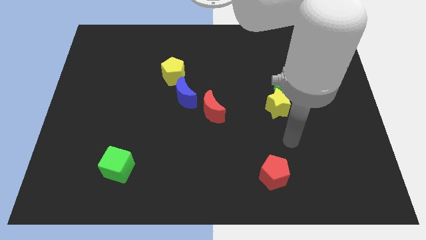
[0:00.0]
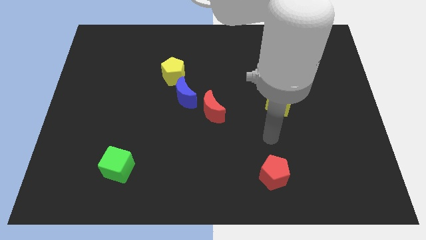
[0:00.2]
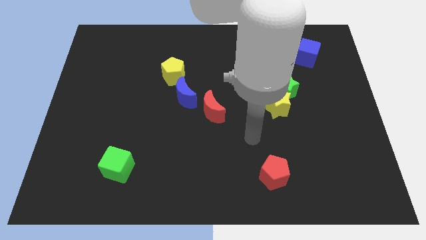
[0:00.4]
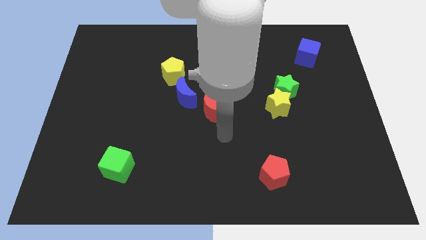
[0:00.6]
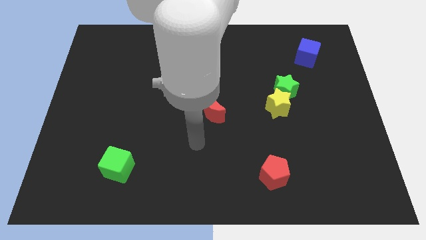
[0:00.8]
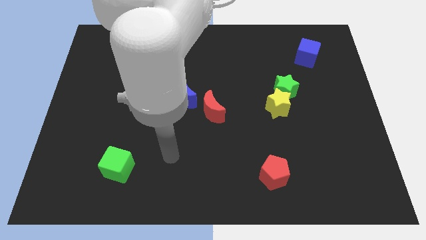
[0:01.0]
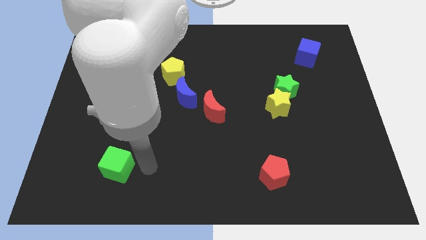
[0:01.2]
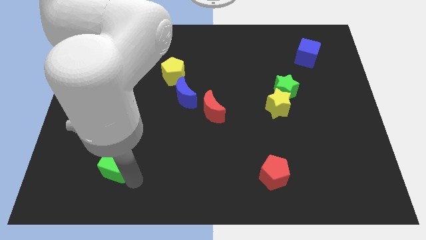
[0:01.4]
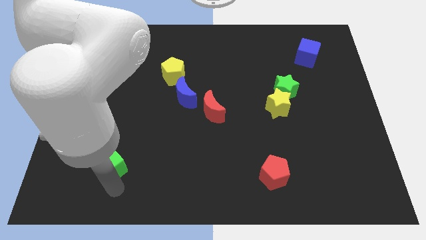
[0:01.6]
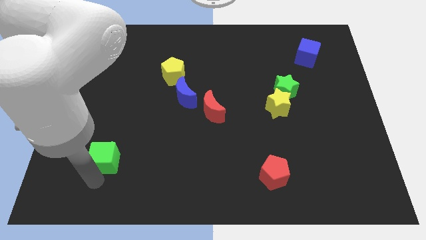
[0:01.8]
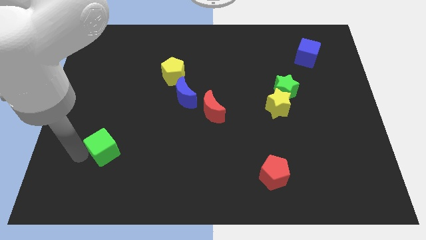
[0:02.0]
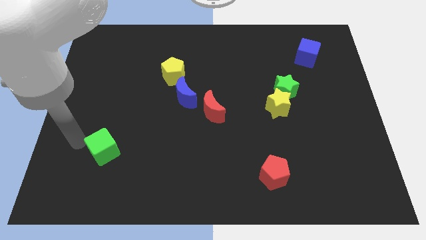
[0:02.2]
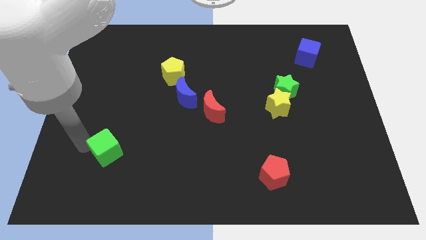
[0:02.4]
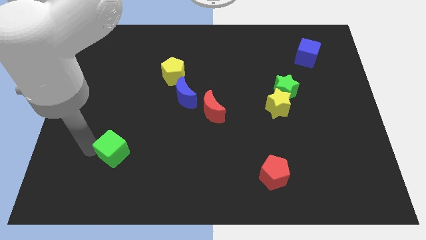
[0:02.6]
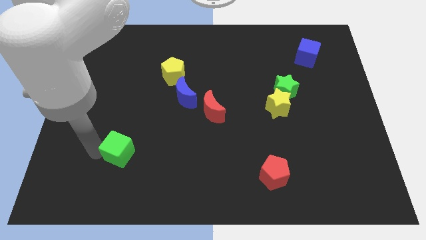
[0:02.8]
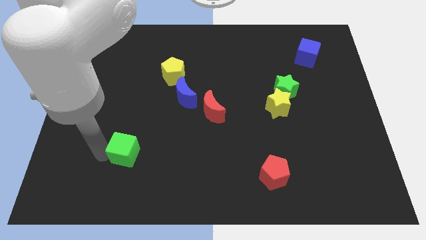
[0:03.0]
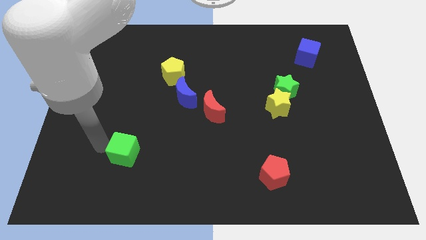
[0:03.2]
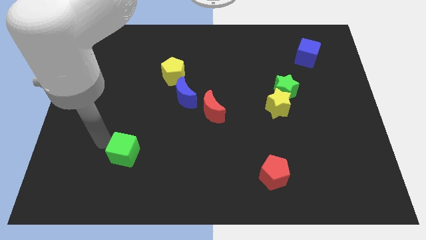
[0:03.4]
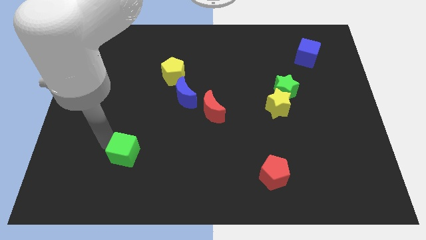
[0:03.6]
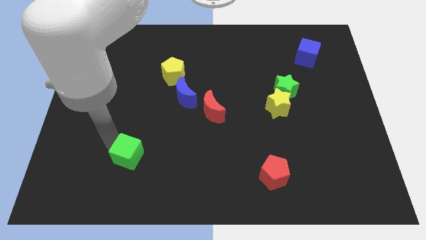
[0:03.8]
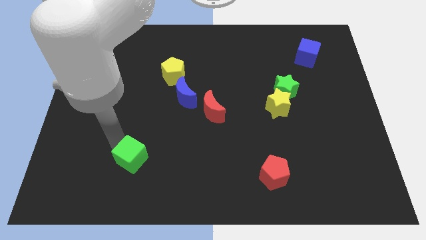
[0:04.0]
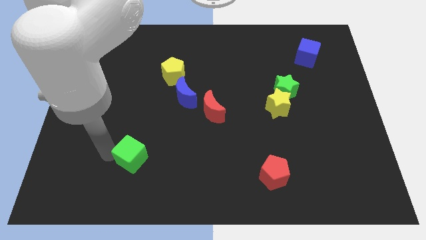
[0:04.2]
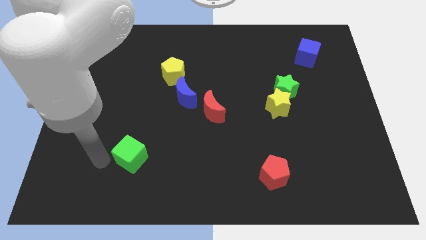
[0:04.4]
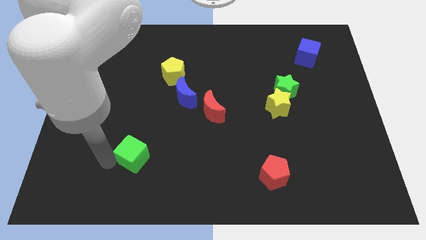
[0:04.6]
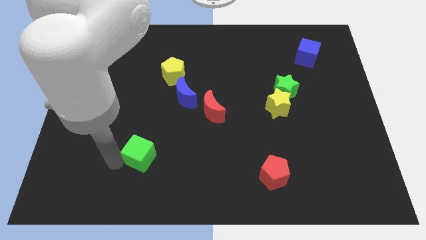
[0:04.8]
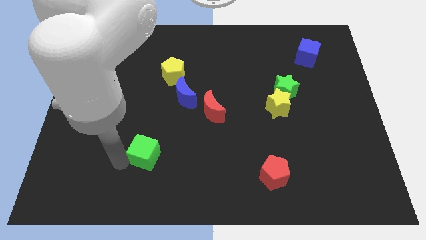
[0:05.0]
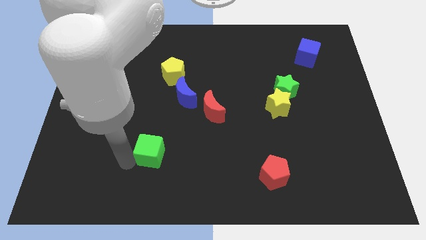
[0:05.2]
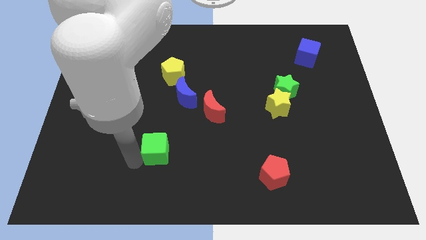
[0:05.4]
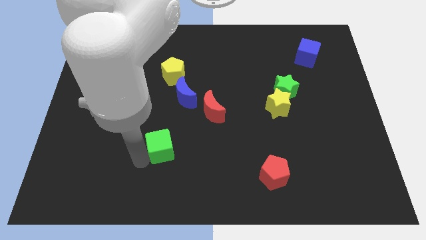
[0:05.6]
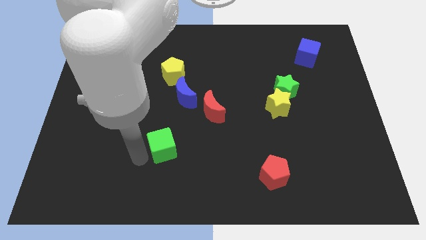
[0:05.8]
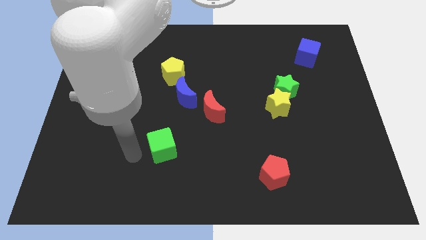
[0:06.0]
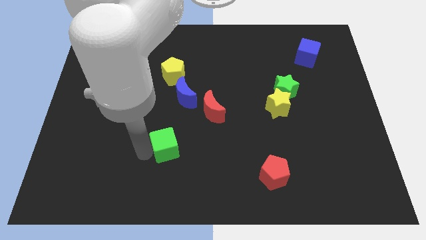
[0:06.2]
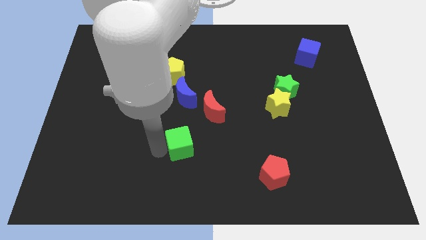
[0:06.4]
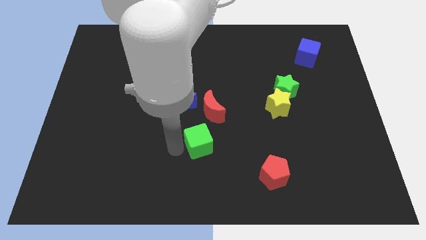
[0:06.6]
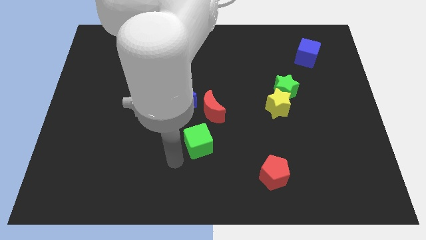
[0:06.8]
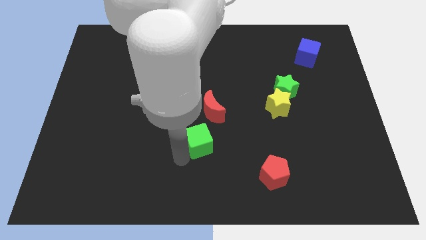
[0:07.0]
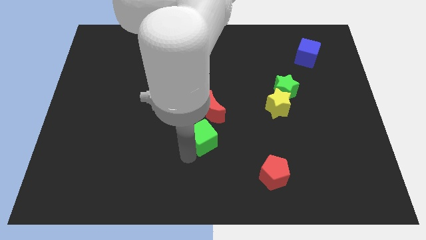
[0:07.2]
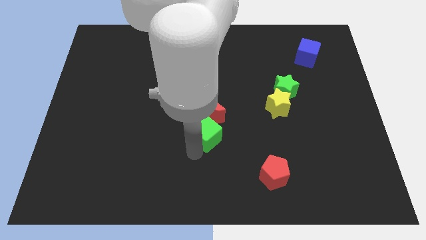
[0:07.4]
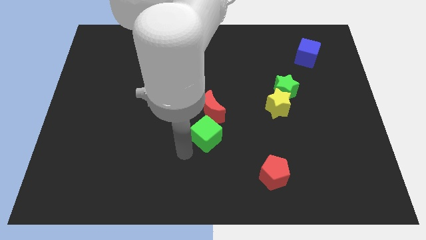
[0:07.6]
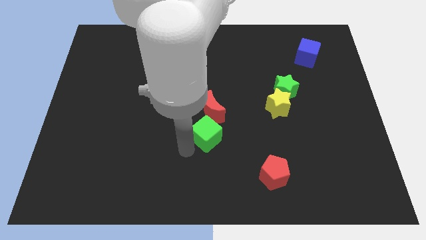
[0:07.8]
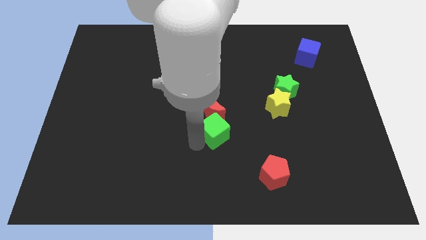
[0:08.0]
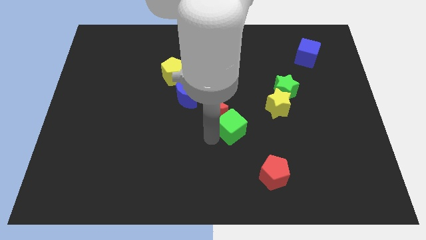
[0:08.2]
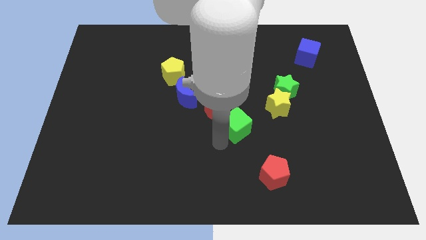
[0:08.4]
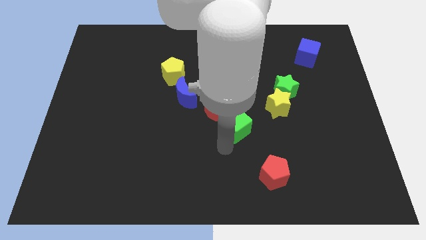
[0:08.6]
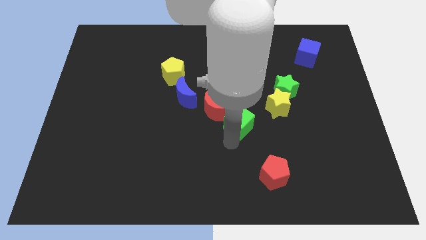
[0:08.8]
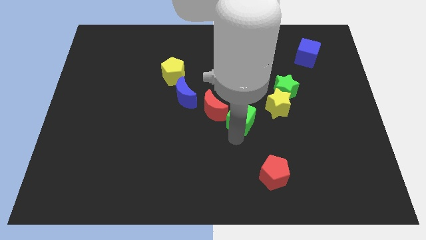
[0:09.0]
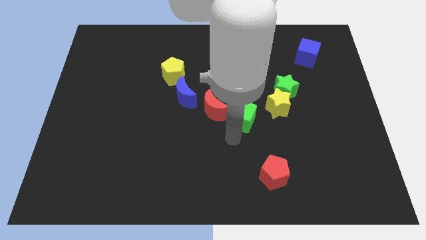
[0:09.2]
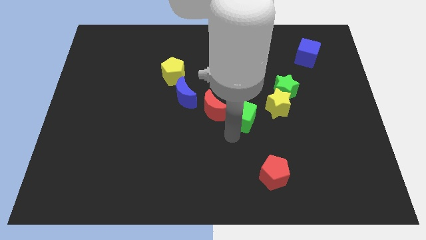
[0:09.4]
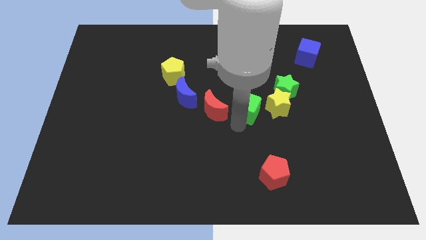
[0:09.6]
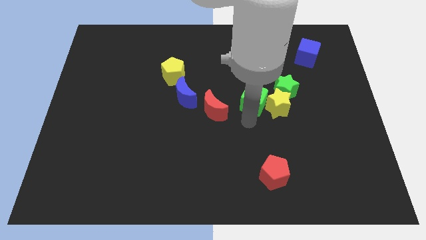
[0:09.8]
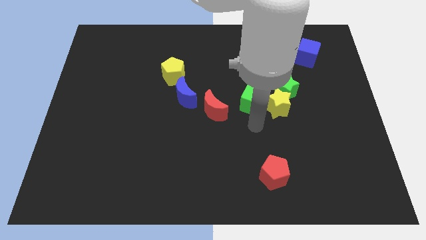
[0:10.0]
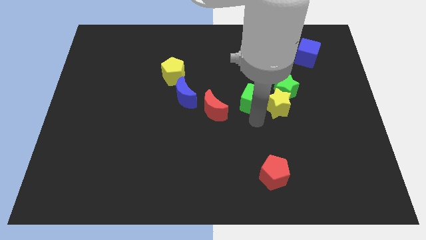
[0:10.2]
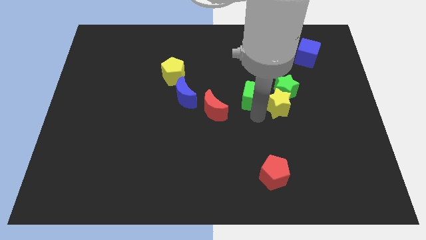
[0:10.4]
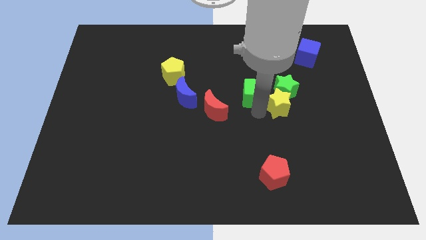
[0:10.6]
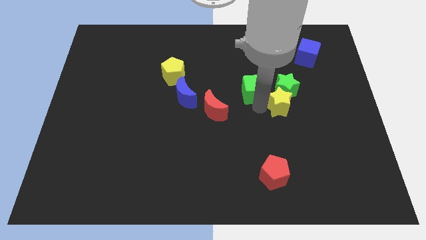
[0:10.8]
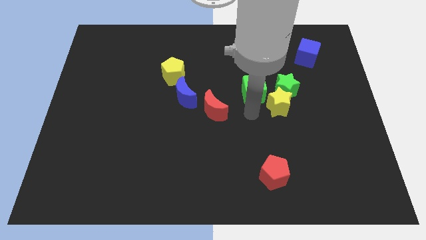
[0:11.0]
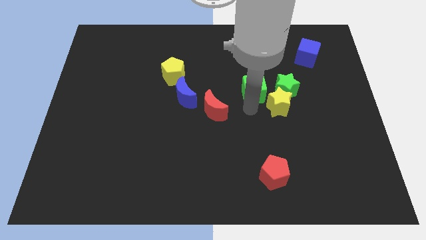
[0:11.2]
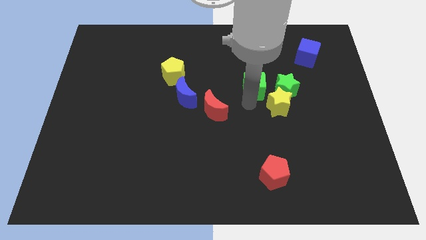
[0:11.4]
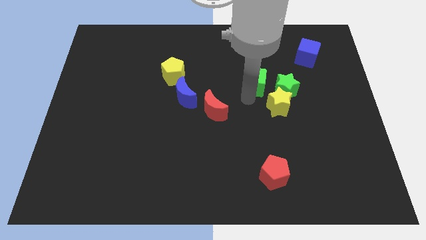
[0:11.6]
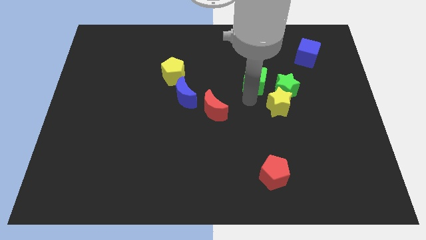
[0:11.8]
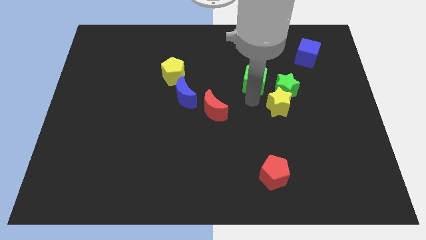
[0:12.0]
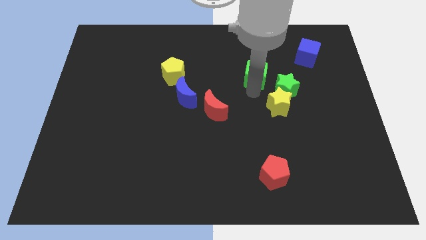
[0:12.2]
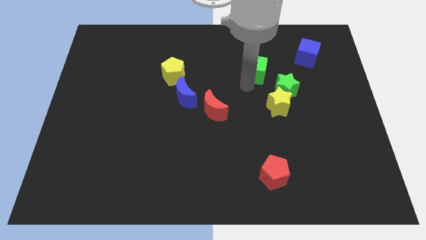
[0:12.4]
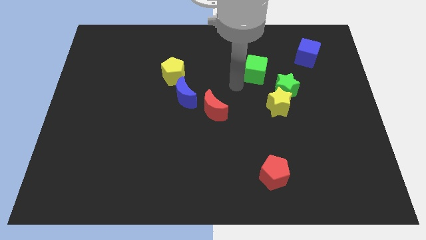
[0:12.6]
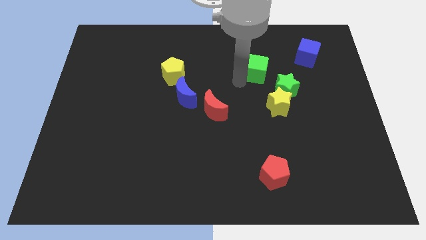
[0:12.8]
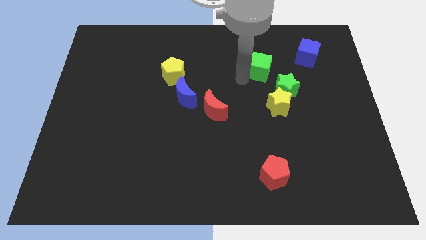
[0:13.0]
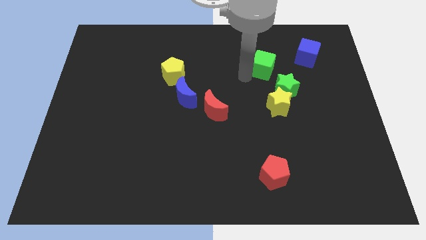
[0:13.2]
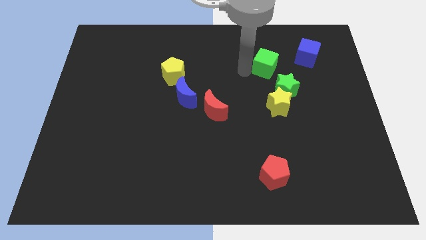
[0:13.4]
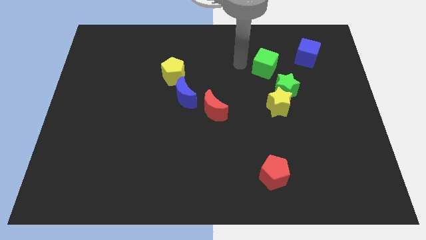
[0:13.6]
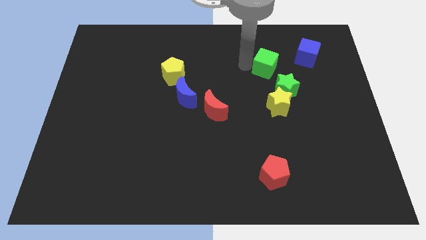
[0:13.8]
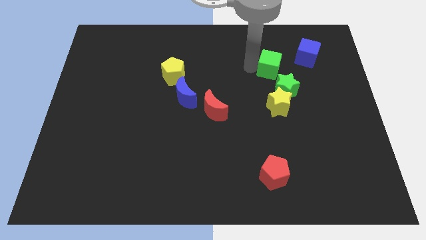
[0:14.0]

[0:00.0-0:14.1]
put the green cube to the bottom left side of the blue cube

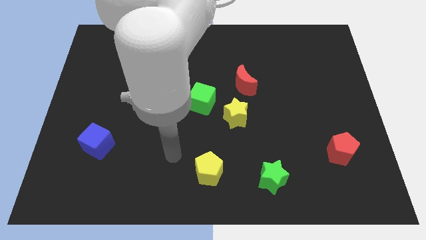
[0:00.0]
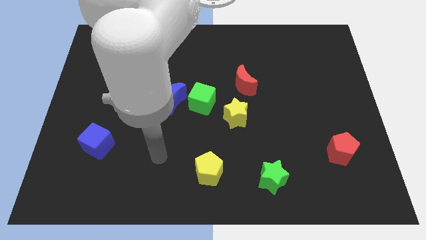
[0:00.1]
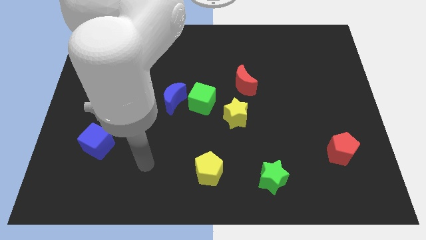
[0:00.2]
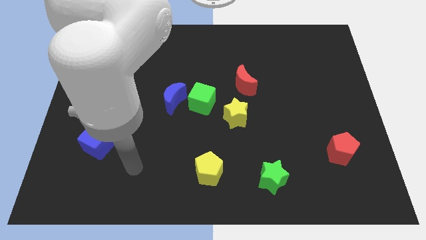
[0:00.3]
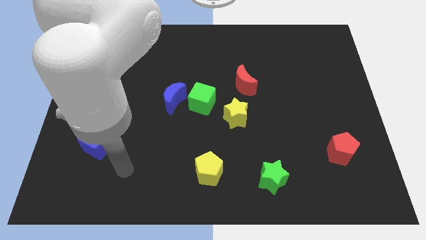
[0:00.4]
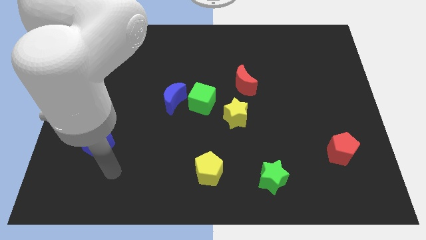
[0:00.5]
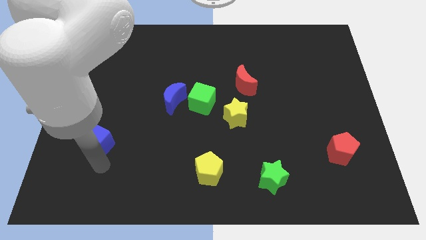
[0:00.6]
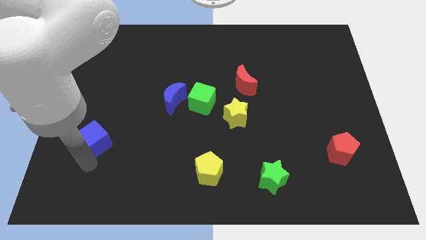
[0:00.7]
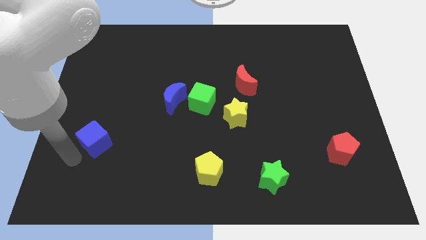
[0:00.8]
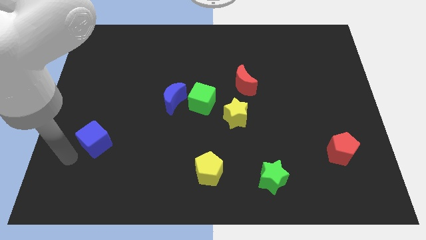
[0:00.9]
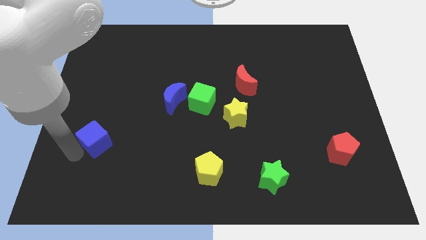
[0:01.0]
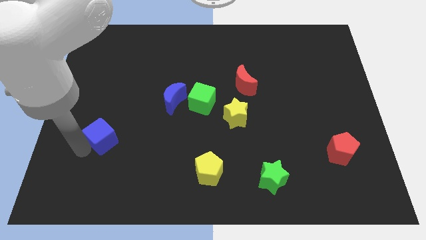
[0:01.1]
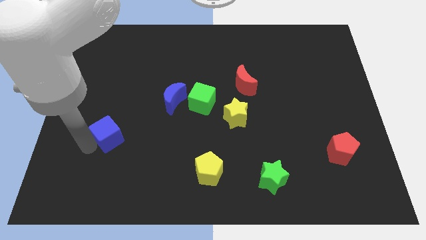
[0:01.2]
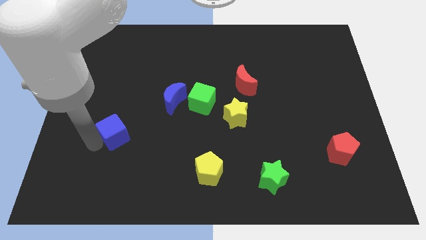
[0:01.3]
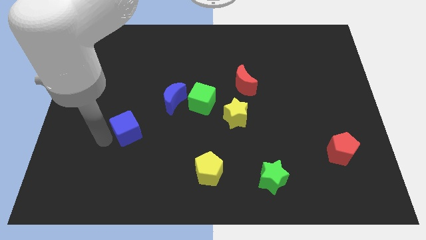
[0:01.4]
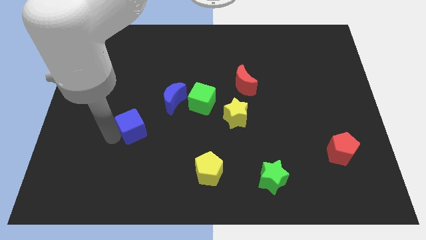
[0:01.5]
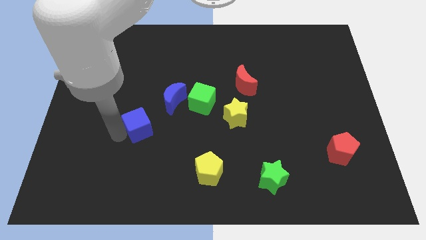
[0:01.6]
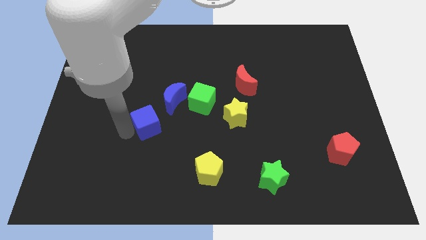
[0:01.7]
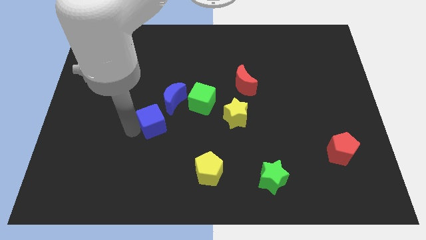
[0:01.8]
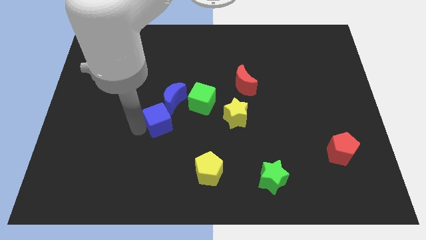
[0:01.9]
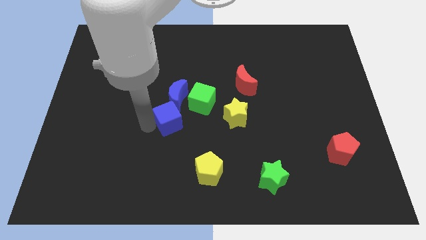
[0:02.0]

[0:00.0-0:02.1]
push the blue cube just left of the yellow star
